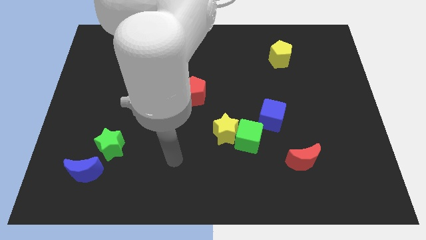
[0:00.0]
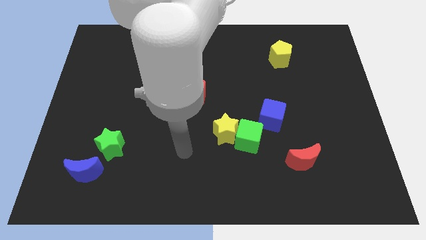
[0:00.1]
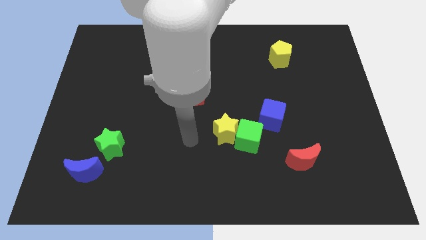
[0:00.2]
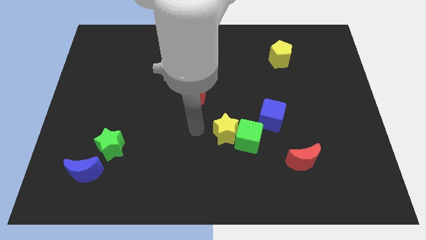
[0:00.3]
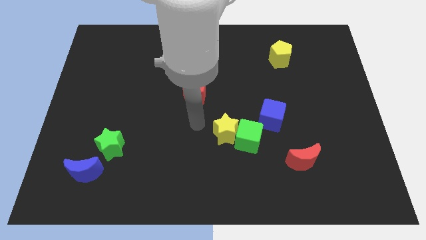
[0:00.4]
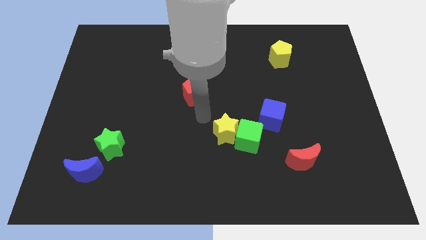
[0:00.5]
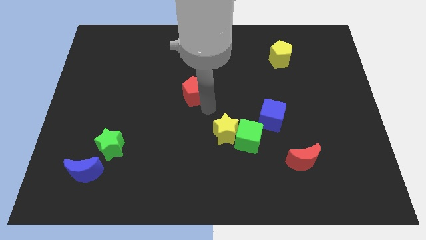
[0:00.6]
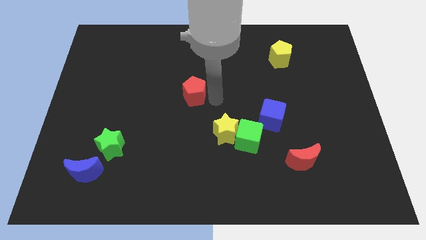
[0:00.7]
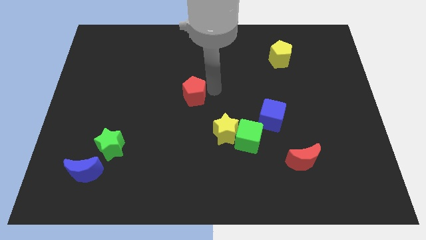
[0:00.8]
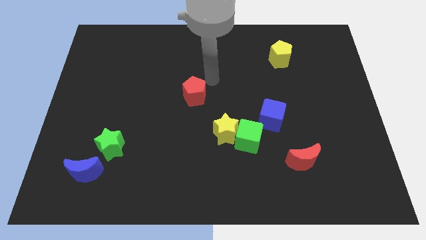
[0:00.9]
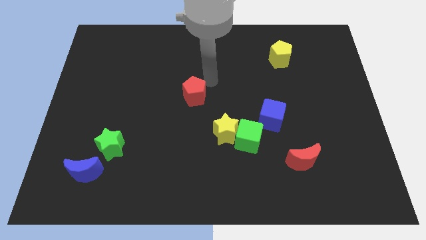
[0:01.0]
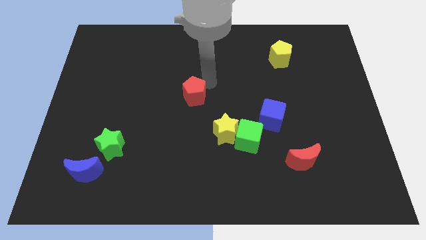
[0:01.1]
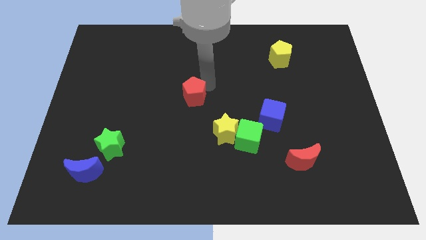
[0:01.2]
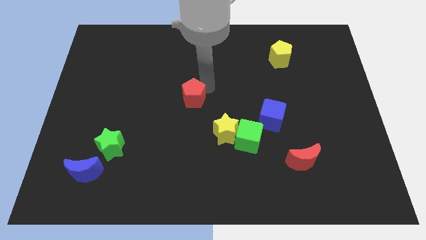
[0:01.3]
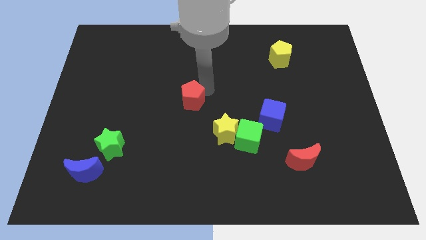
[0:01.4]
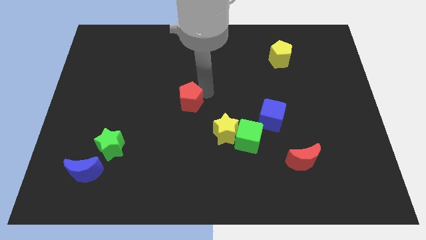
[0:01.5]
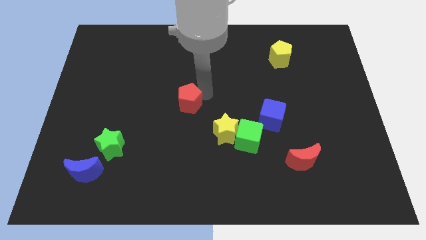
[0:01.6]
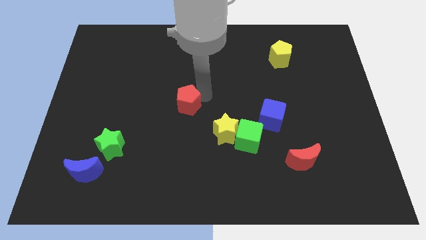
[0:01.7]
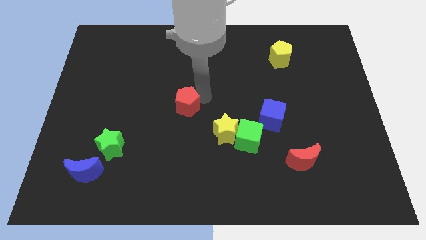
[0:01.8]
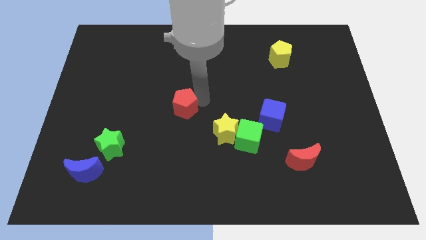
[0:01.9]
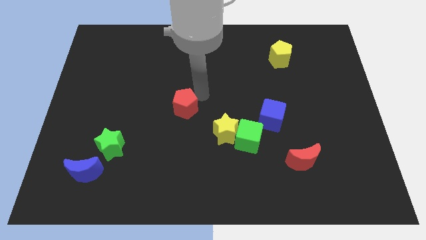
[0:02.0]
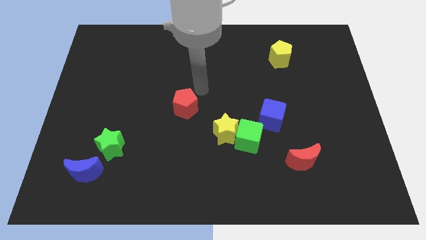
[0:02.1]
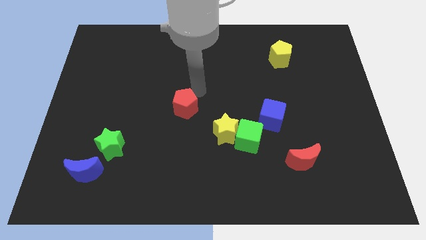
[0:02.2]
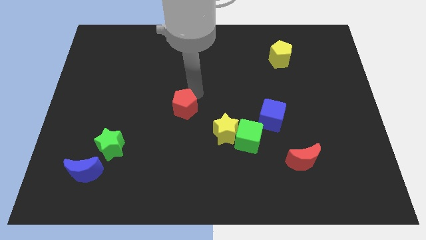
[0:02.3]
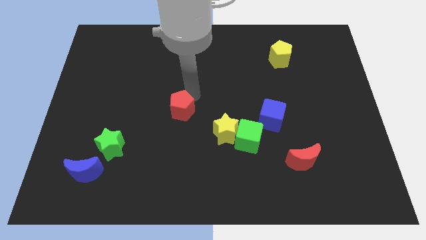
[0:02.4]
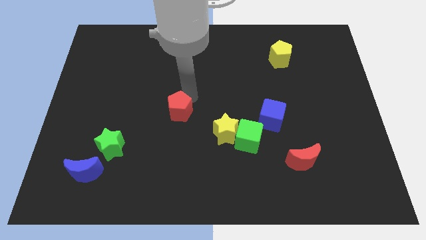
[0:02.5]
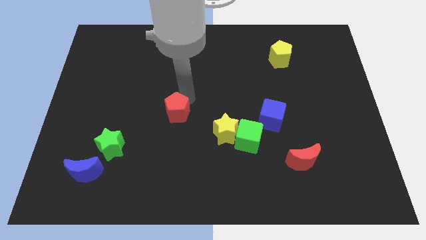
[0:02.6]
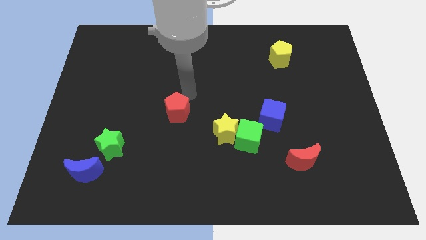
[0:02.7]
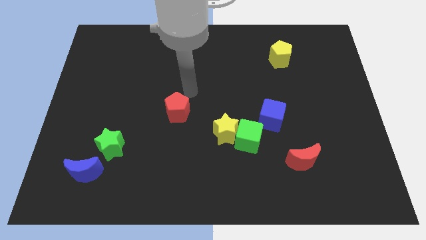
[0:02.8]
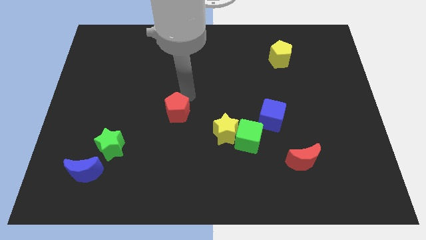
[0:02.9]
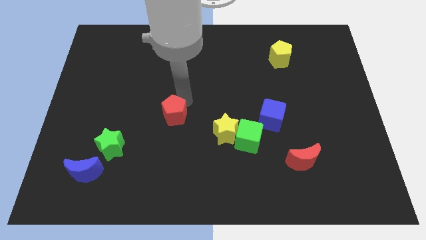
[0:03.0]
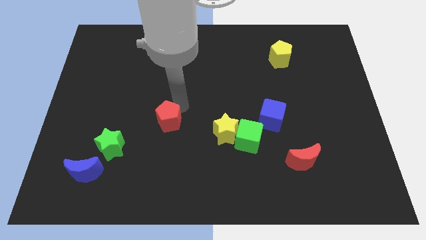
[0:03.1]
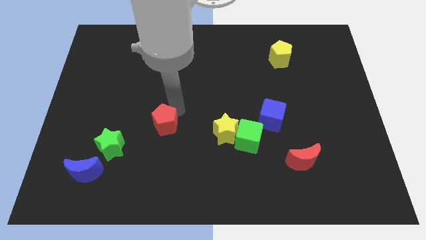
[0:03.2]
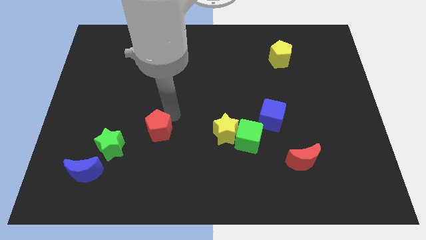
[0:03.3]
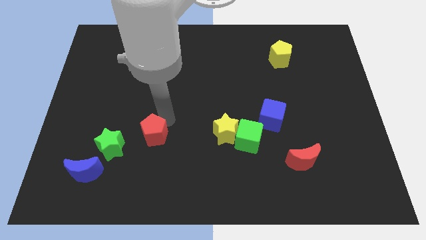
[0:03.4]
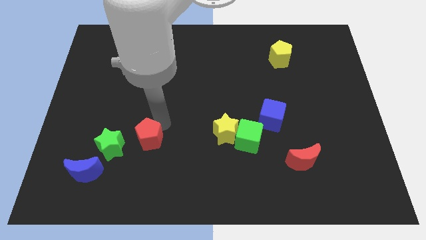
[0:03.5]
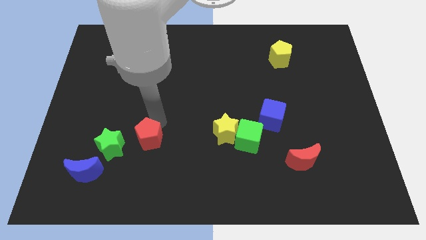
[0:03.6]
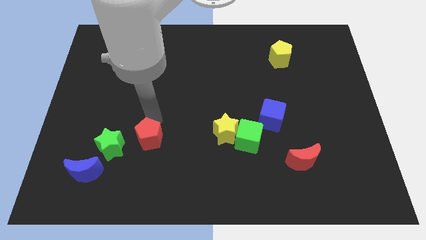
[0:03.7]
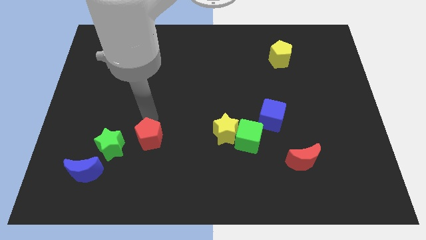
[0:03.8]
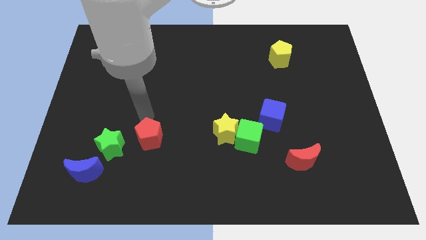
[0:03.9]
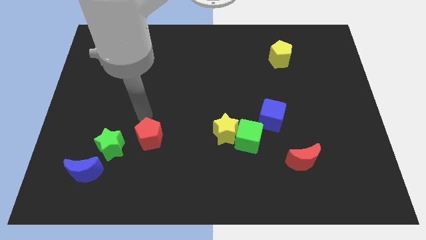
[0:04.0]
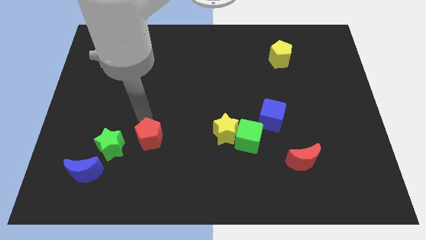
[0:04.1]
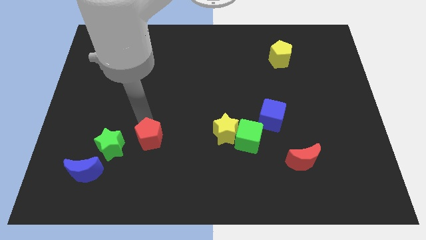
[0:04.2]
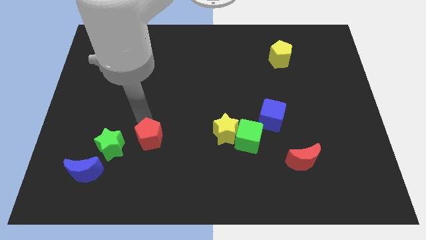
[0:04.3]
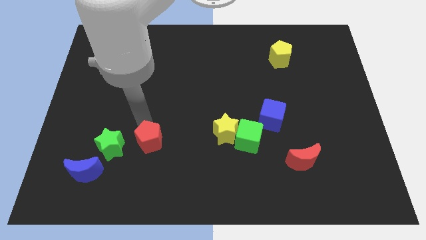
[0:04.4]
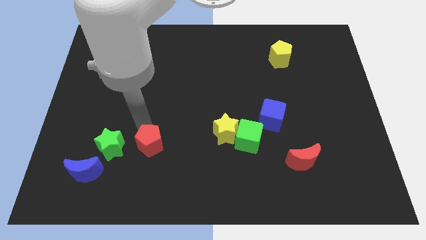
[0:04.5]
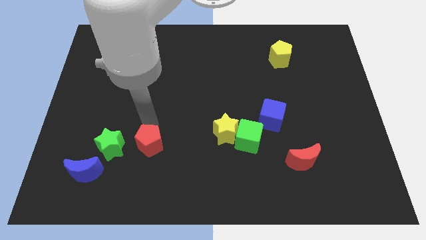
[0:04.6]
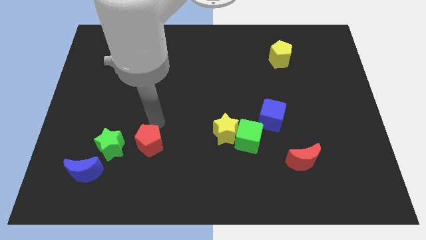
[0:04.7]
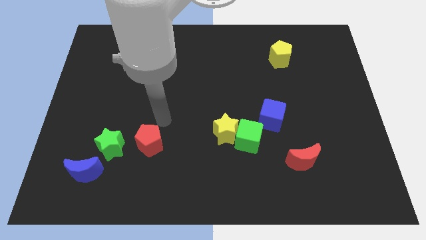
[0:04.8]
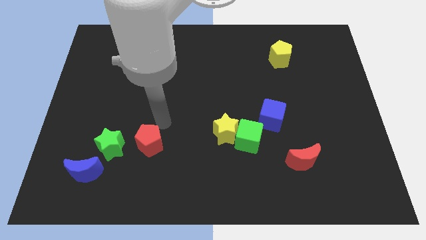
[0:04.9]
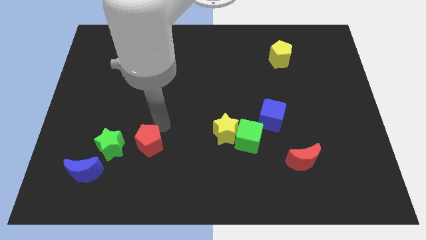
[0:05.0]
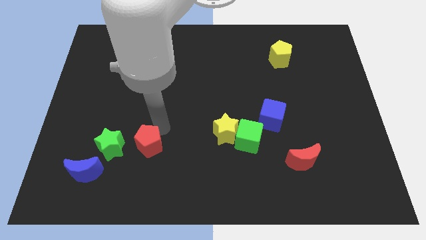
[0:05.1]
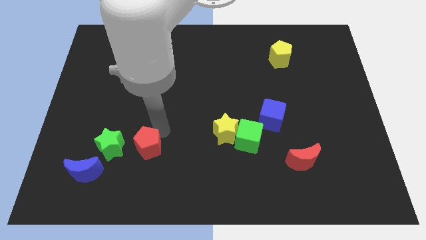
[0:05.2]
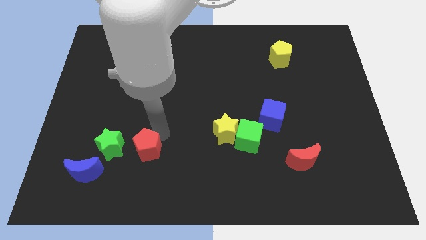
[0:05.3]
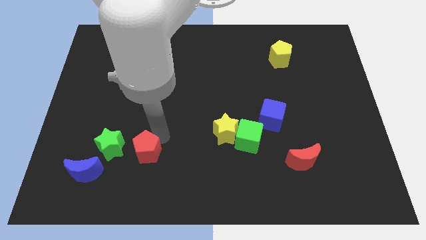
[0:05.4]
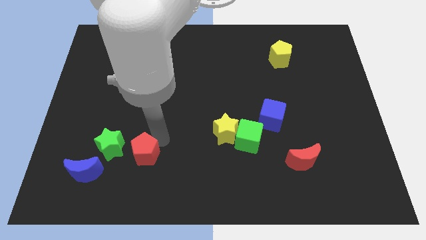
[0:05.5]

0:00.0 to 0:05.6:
put the red pentagon right of the blue moon

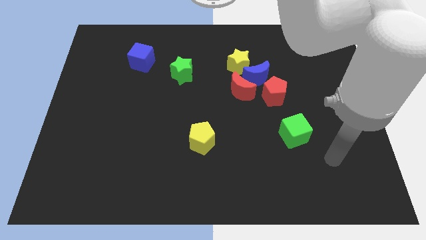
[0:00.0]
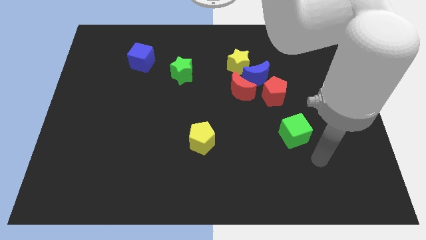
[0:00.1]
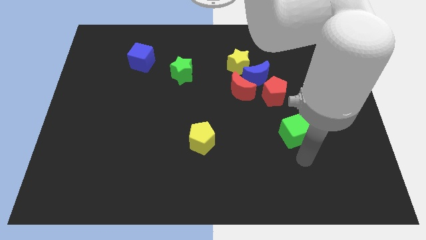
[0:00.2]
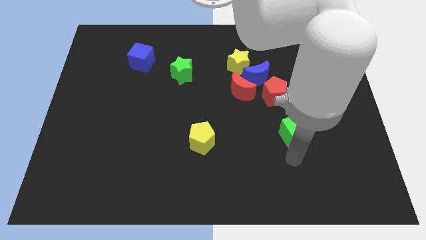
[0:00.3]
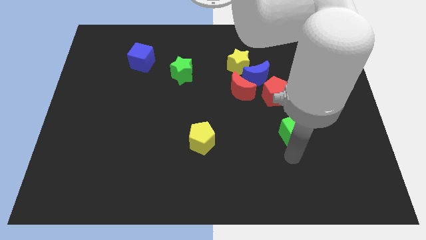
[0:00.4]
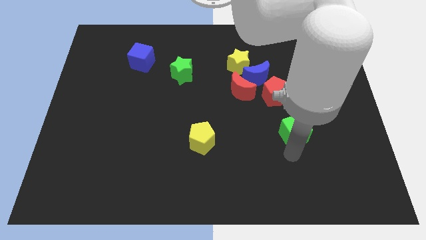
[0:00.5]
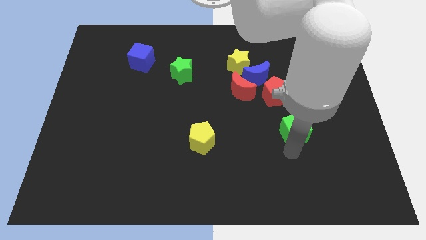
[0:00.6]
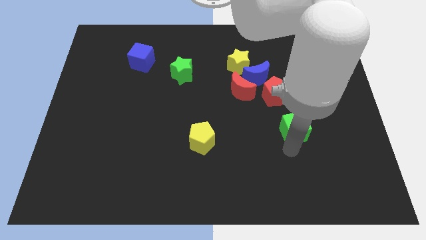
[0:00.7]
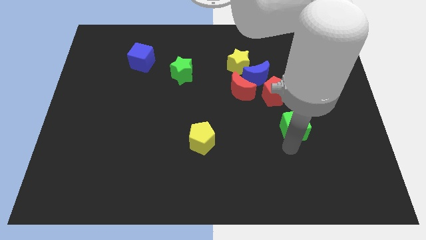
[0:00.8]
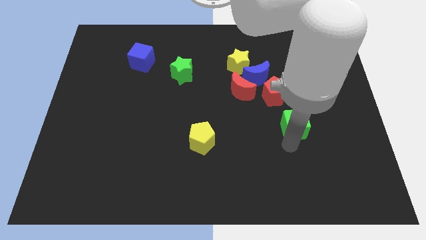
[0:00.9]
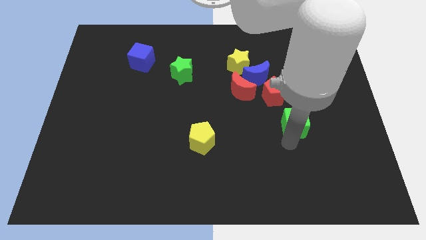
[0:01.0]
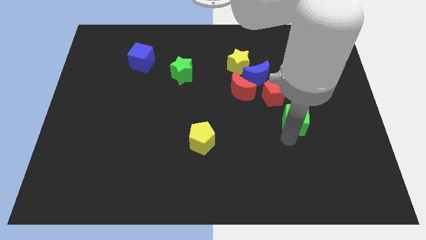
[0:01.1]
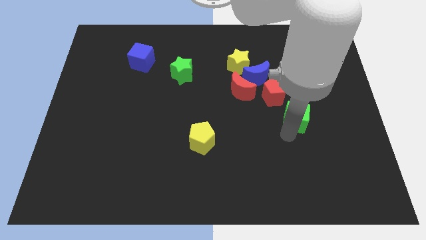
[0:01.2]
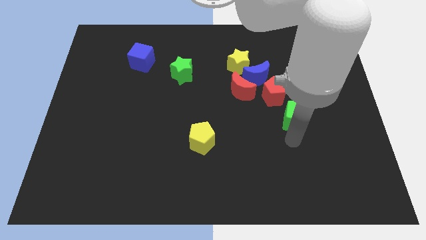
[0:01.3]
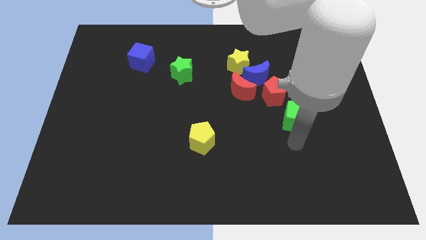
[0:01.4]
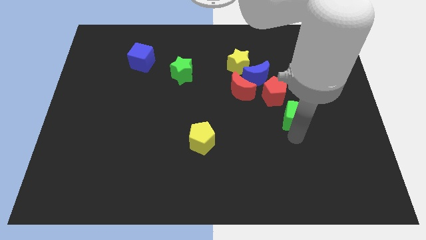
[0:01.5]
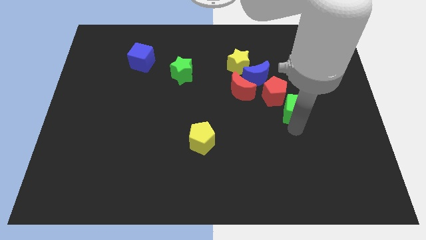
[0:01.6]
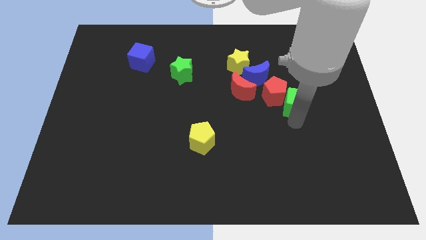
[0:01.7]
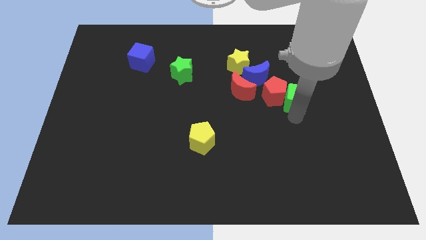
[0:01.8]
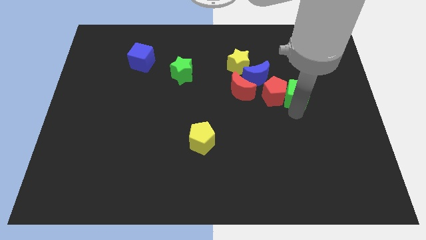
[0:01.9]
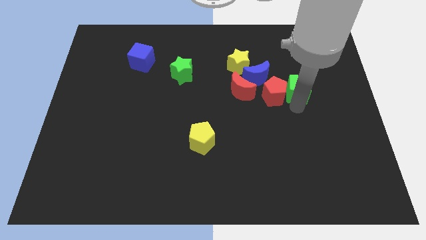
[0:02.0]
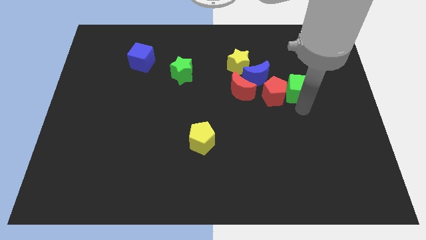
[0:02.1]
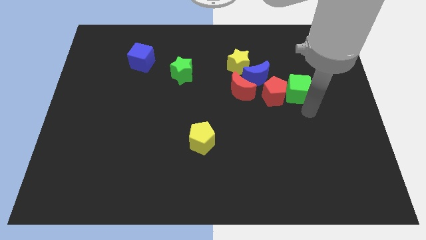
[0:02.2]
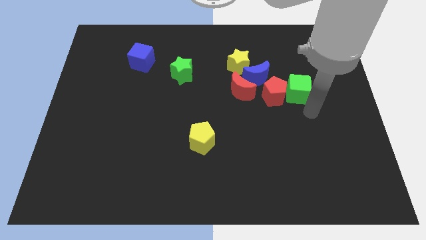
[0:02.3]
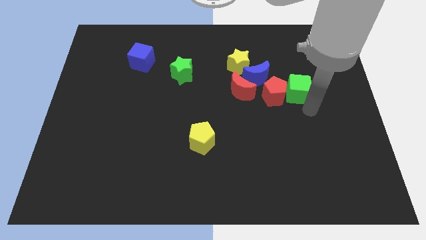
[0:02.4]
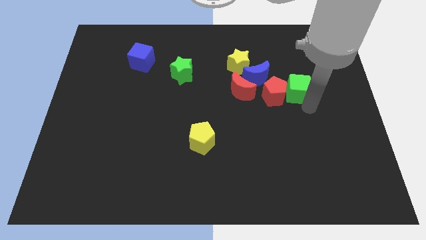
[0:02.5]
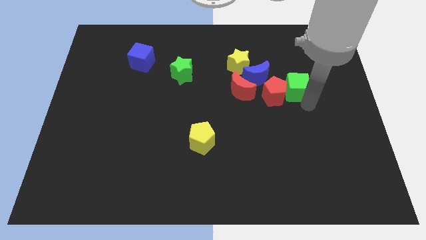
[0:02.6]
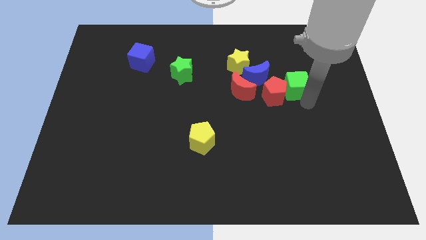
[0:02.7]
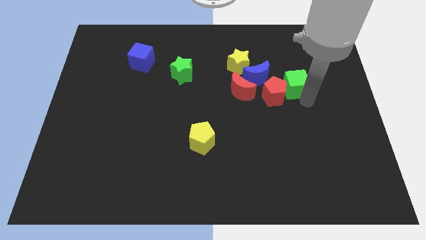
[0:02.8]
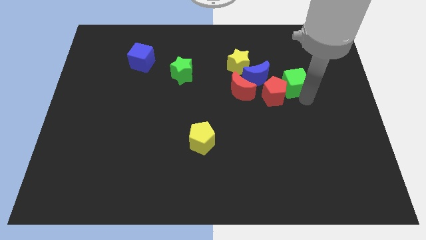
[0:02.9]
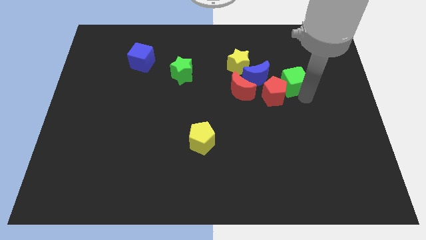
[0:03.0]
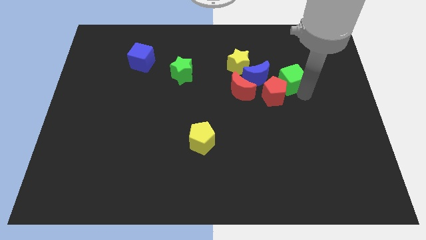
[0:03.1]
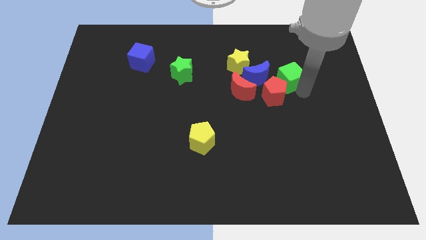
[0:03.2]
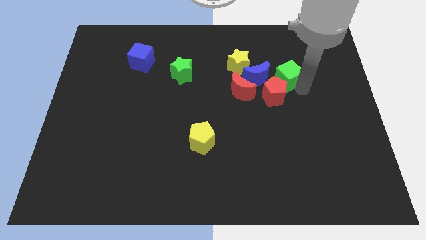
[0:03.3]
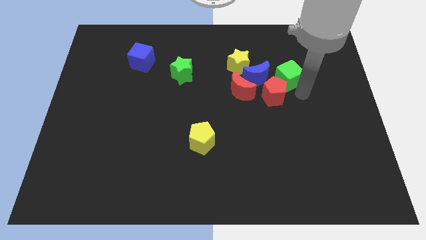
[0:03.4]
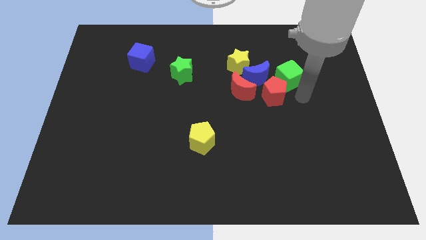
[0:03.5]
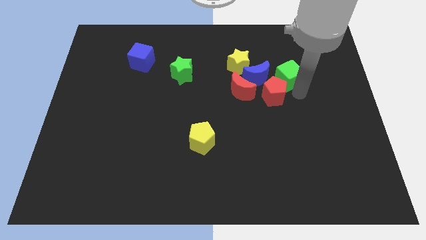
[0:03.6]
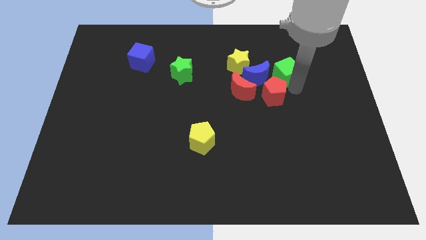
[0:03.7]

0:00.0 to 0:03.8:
move the green cube to the top right of the blue moon
